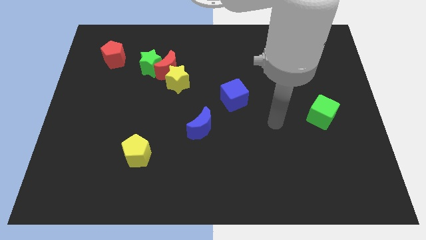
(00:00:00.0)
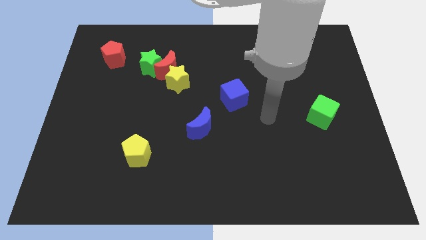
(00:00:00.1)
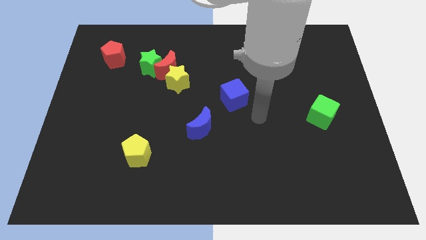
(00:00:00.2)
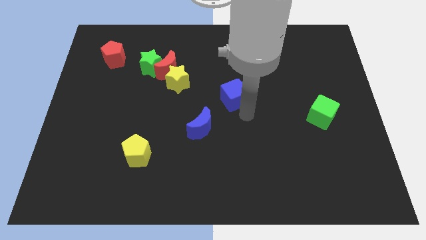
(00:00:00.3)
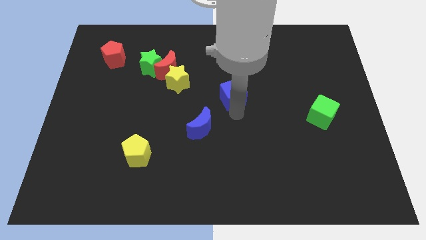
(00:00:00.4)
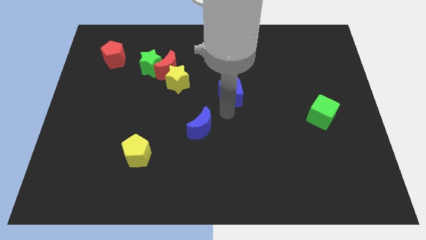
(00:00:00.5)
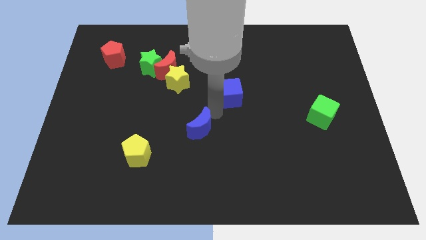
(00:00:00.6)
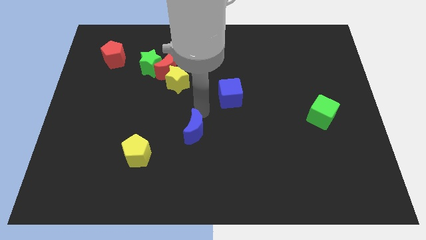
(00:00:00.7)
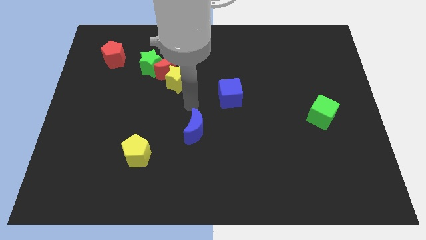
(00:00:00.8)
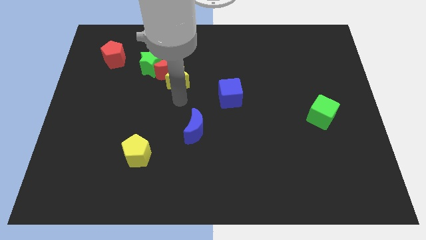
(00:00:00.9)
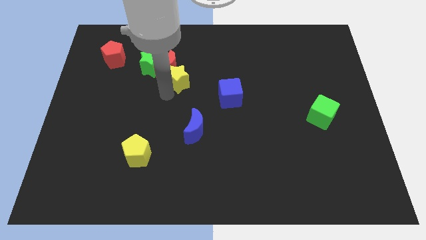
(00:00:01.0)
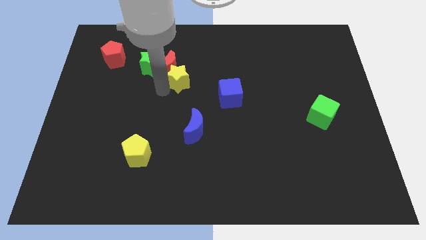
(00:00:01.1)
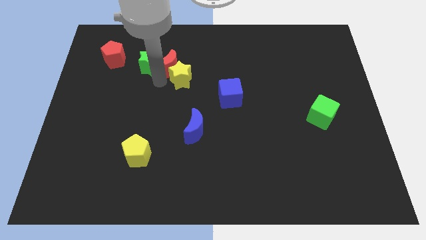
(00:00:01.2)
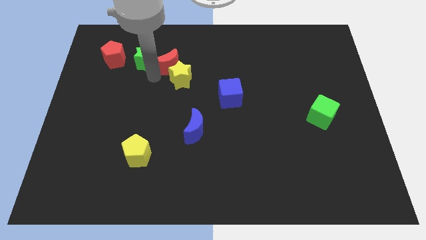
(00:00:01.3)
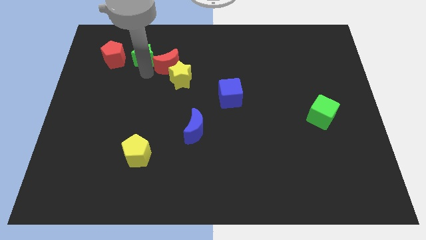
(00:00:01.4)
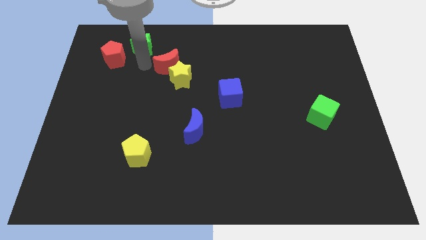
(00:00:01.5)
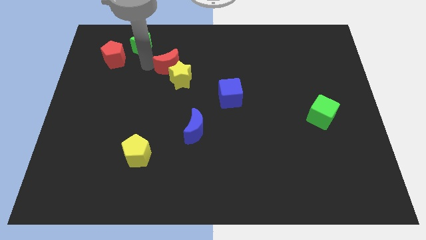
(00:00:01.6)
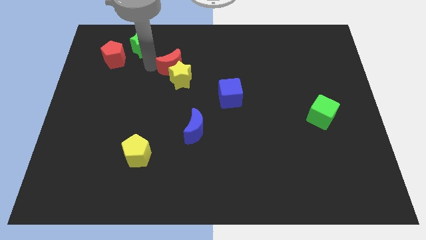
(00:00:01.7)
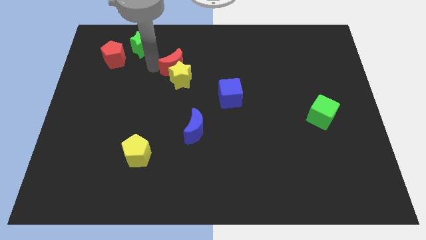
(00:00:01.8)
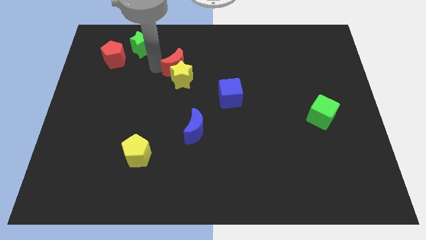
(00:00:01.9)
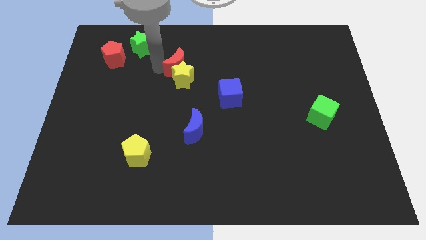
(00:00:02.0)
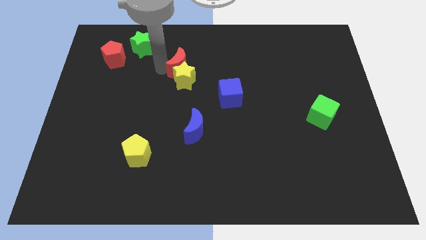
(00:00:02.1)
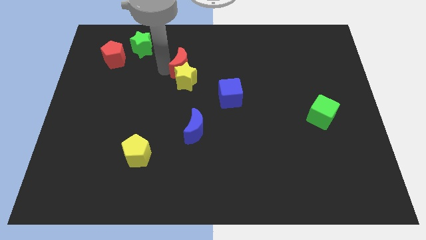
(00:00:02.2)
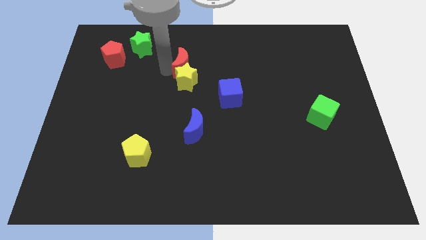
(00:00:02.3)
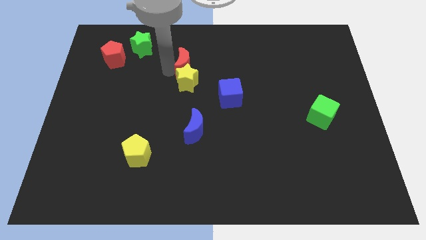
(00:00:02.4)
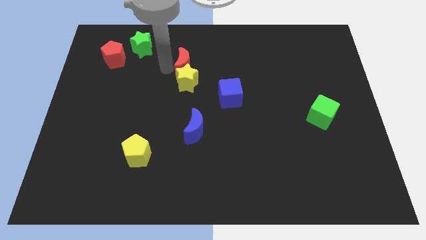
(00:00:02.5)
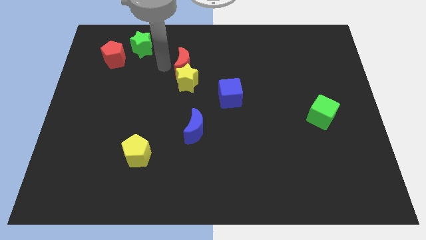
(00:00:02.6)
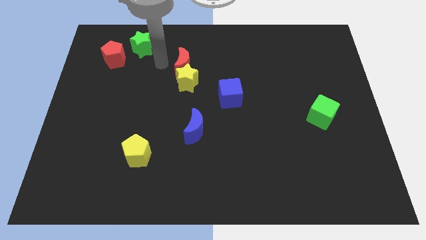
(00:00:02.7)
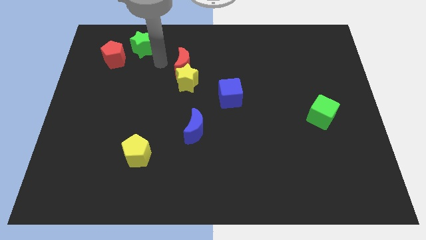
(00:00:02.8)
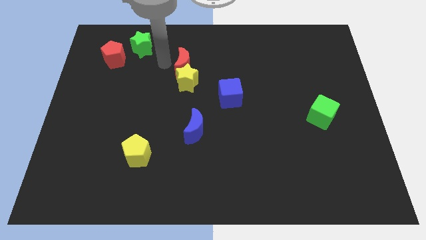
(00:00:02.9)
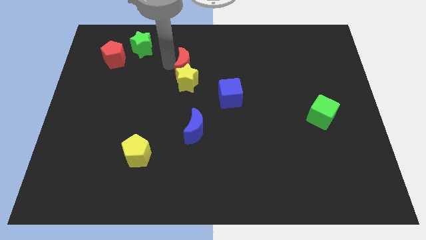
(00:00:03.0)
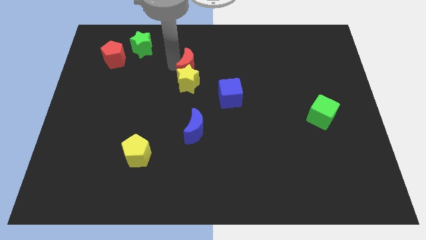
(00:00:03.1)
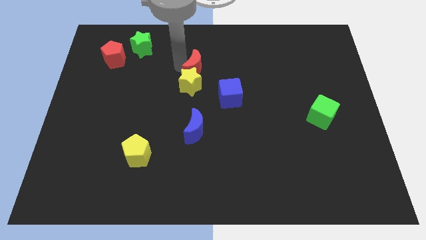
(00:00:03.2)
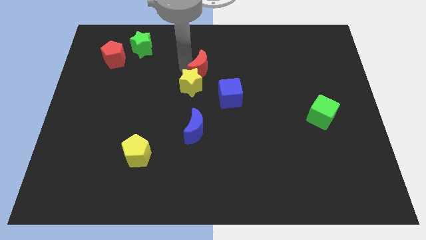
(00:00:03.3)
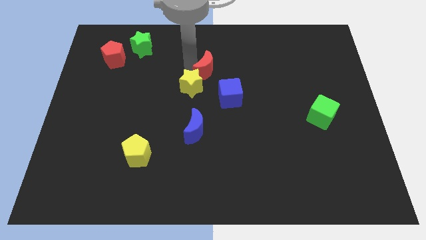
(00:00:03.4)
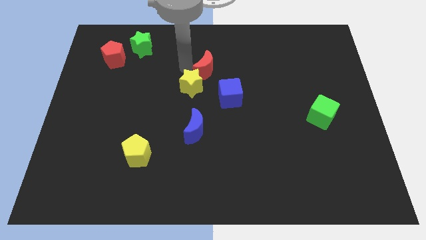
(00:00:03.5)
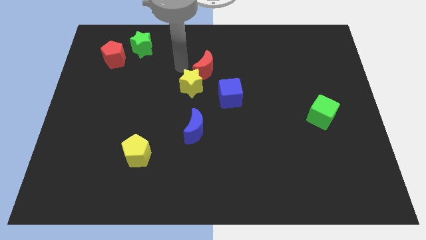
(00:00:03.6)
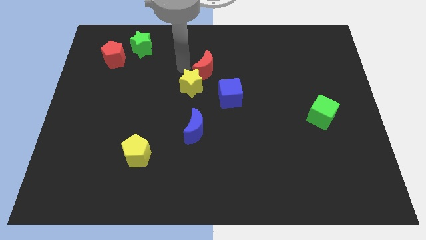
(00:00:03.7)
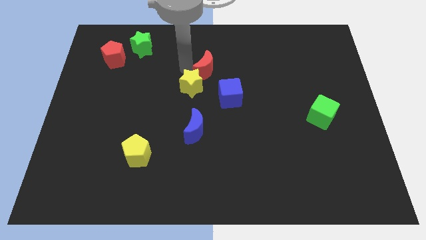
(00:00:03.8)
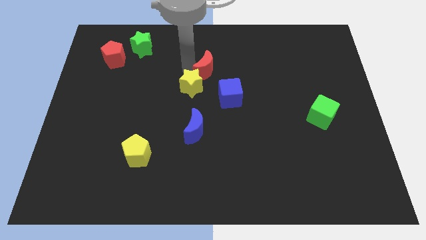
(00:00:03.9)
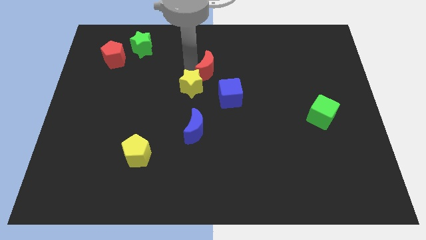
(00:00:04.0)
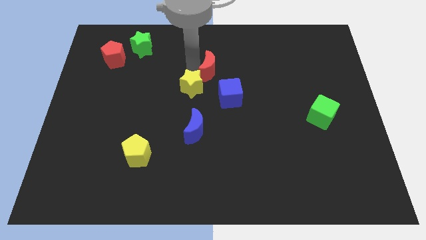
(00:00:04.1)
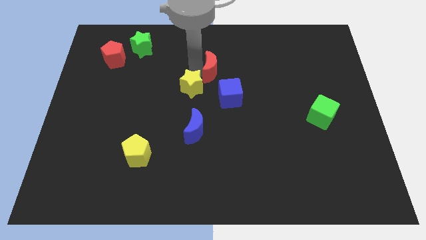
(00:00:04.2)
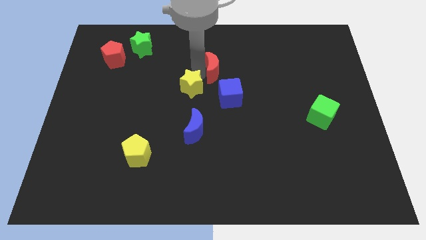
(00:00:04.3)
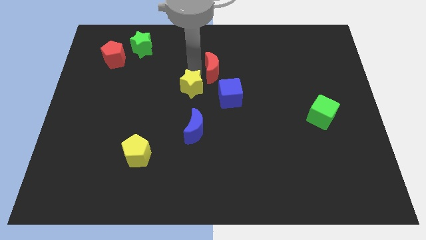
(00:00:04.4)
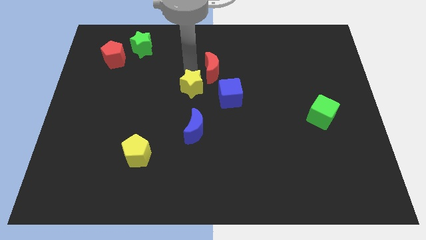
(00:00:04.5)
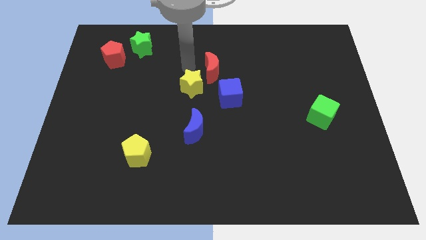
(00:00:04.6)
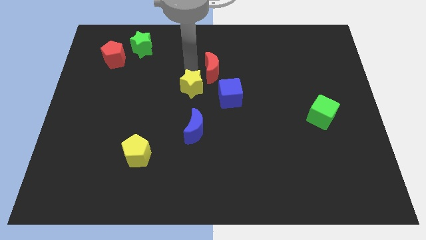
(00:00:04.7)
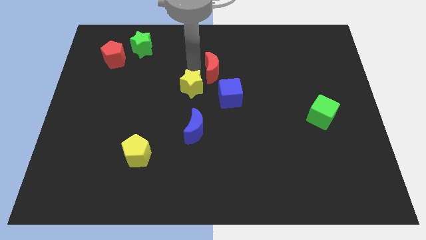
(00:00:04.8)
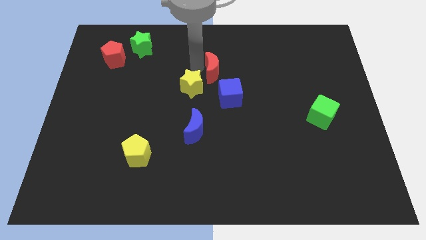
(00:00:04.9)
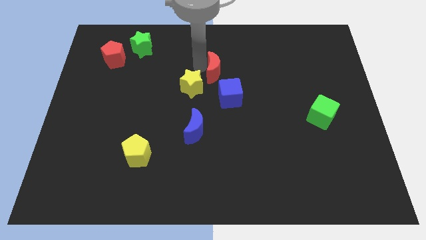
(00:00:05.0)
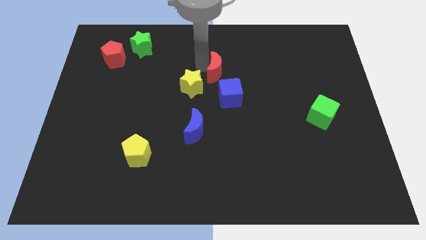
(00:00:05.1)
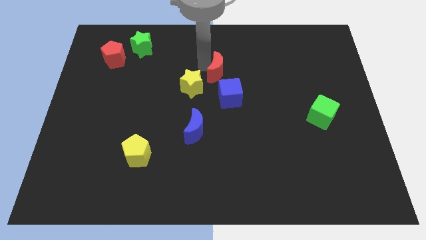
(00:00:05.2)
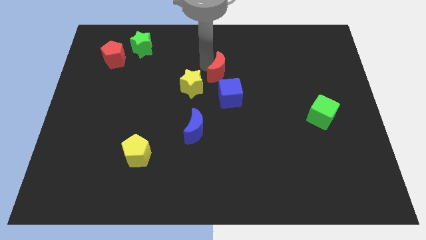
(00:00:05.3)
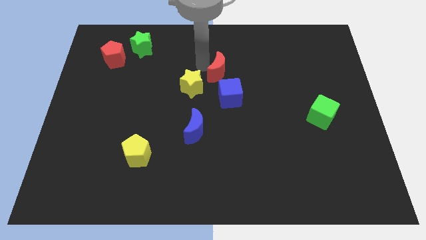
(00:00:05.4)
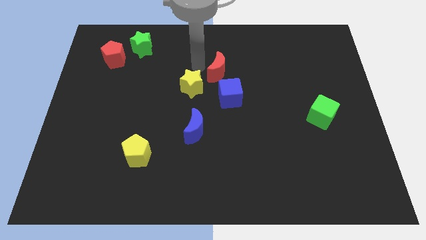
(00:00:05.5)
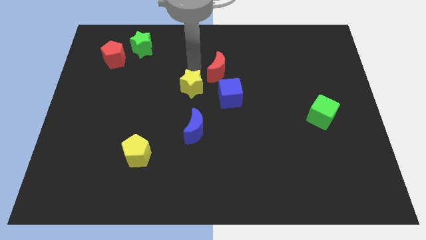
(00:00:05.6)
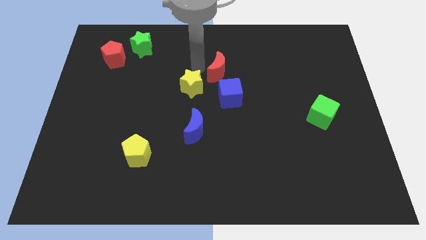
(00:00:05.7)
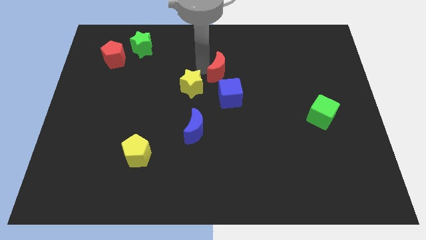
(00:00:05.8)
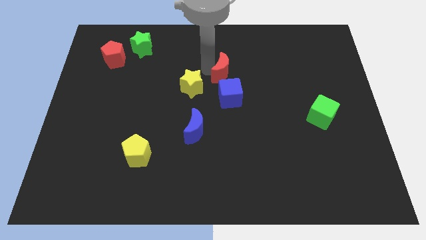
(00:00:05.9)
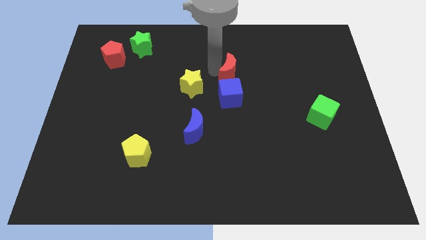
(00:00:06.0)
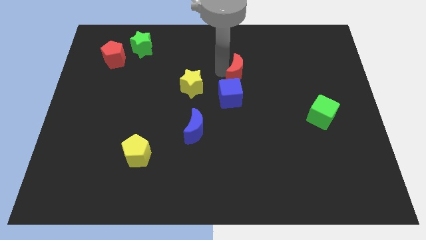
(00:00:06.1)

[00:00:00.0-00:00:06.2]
move the red moon to the top right of the blue cube
